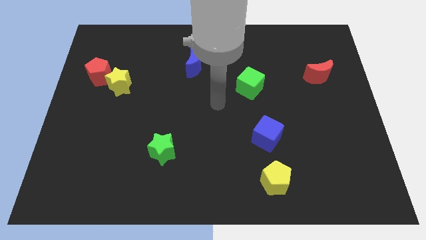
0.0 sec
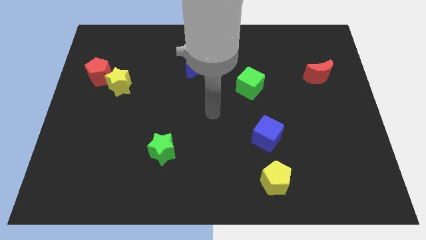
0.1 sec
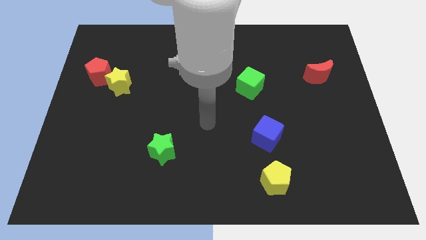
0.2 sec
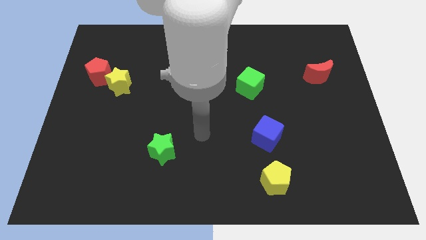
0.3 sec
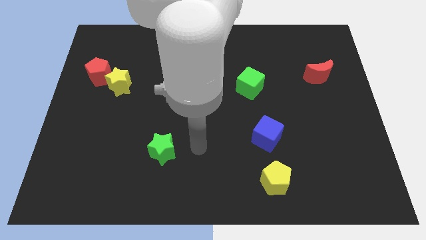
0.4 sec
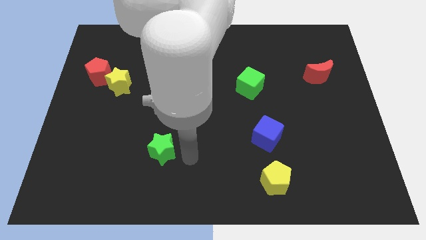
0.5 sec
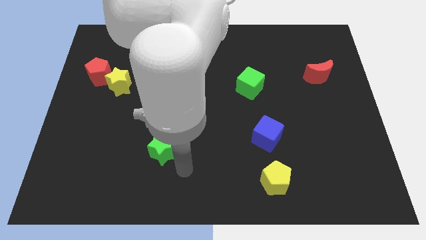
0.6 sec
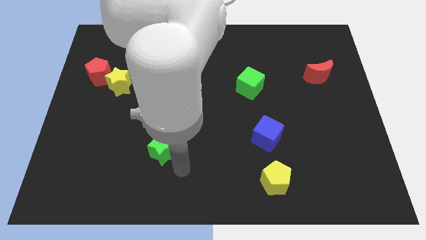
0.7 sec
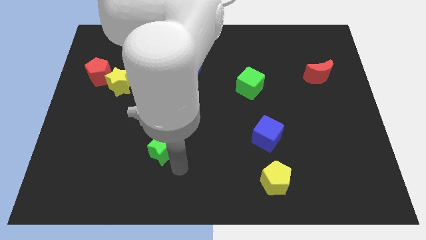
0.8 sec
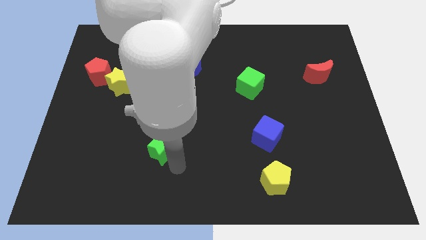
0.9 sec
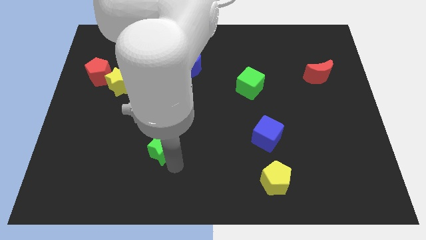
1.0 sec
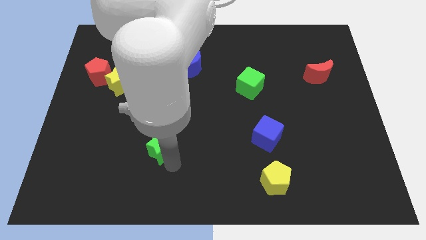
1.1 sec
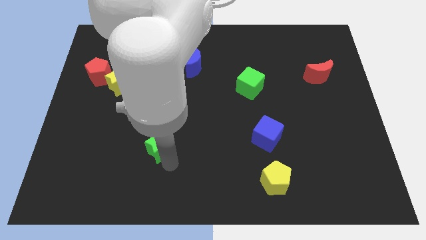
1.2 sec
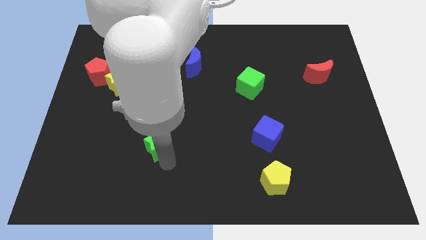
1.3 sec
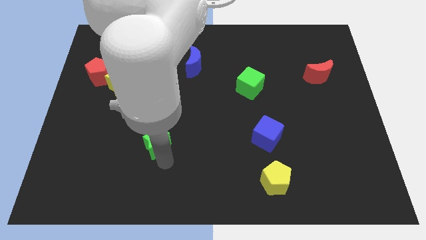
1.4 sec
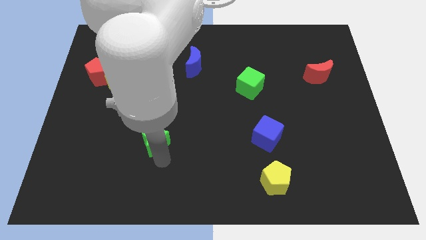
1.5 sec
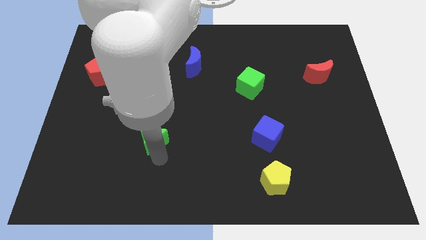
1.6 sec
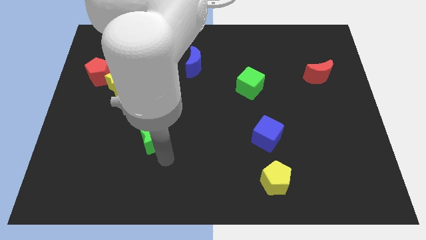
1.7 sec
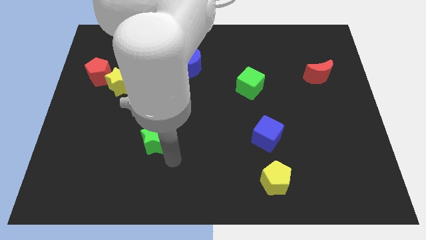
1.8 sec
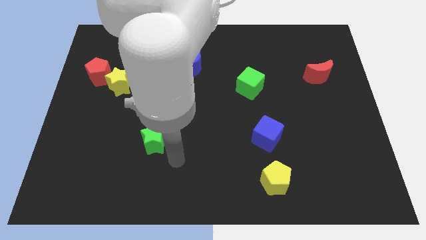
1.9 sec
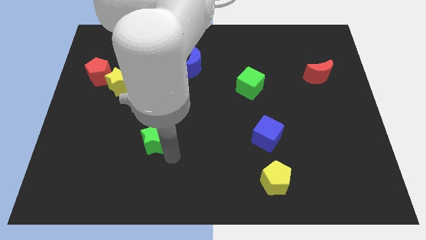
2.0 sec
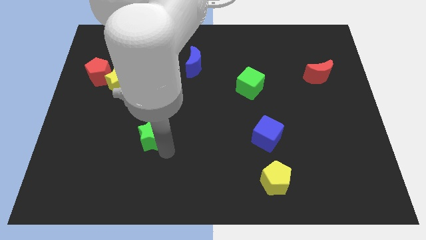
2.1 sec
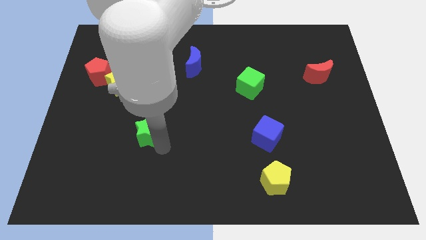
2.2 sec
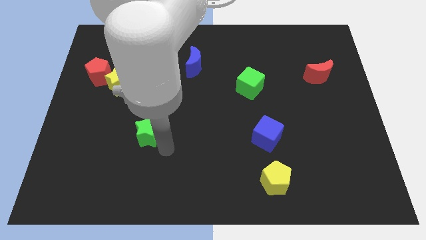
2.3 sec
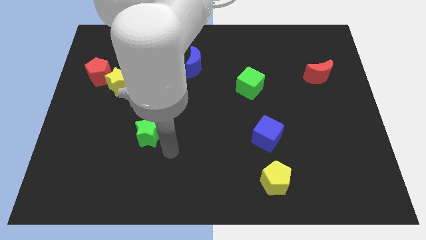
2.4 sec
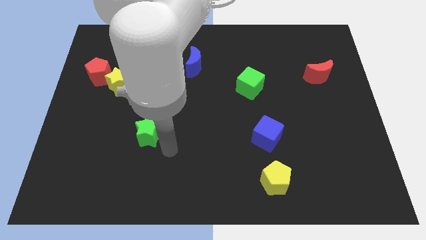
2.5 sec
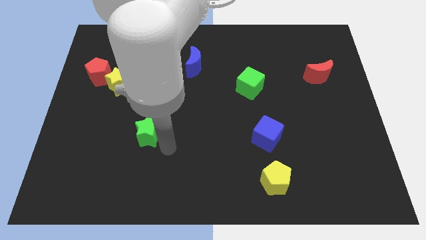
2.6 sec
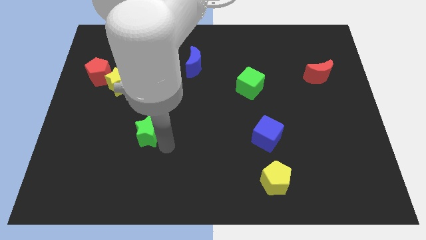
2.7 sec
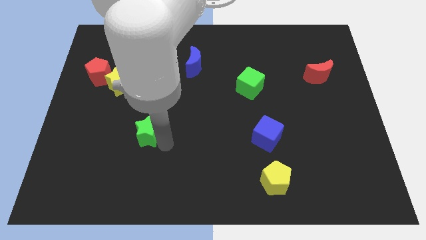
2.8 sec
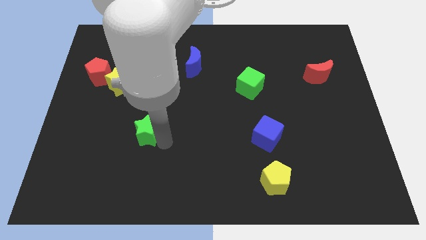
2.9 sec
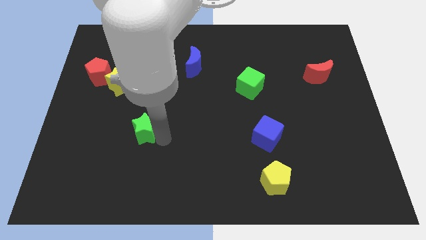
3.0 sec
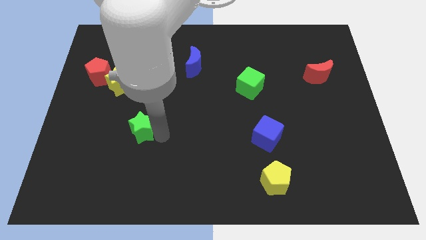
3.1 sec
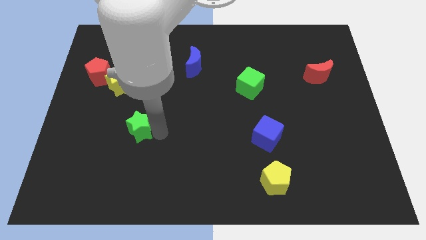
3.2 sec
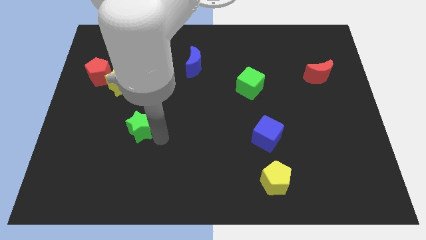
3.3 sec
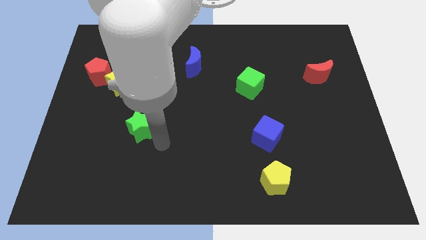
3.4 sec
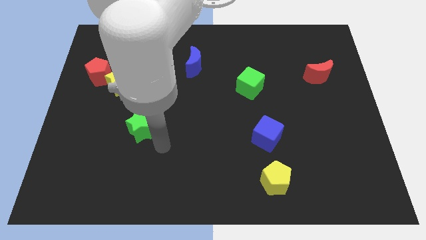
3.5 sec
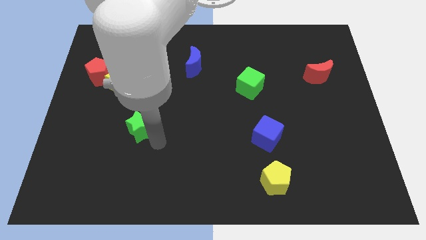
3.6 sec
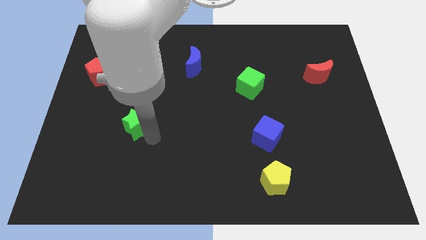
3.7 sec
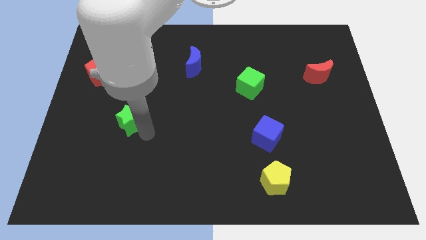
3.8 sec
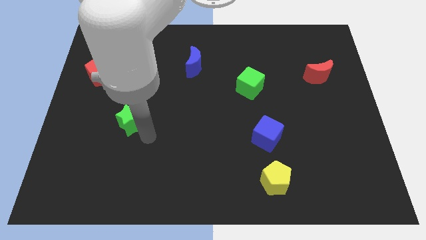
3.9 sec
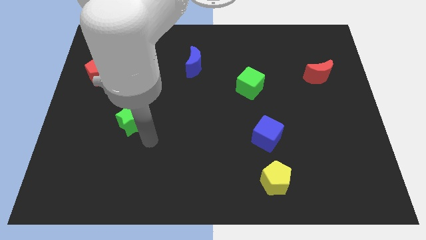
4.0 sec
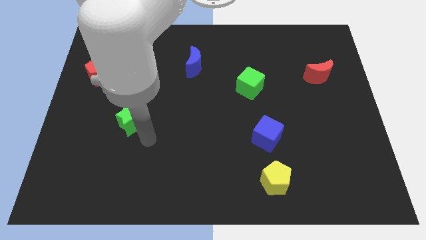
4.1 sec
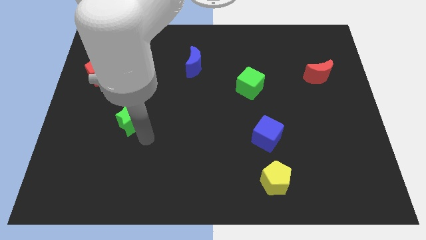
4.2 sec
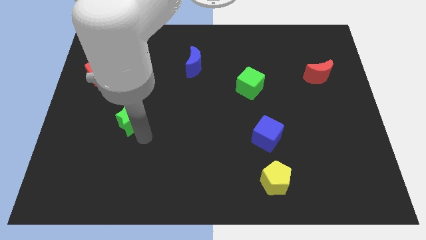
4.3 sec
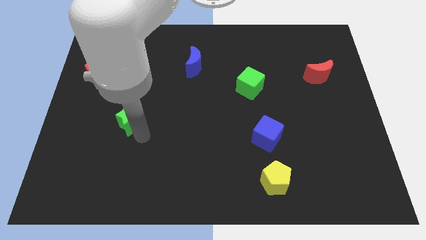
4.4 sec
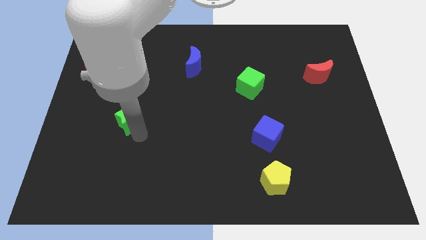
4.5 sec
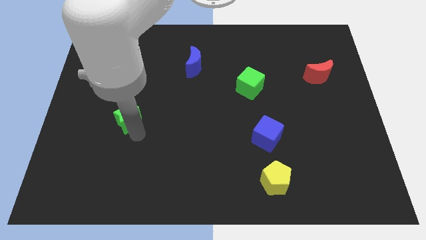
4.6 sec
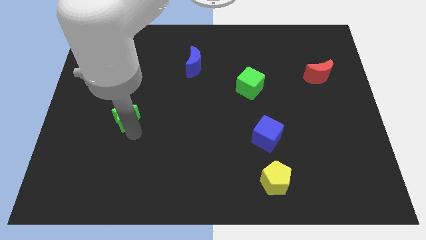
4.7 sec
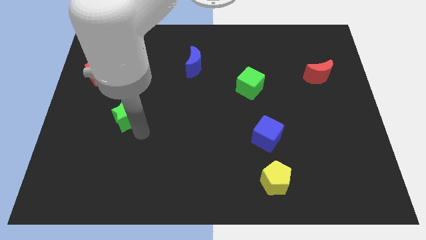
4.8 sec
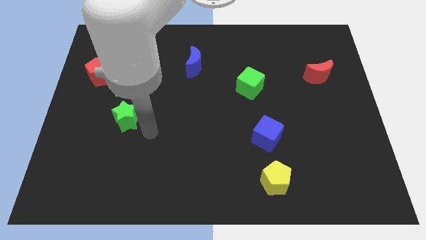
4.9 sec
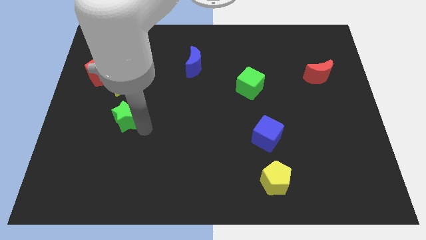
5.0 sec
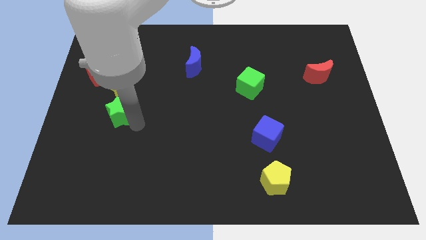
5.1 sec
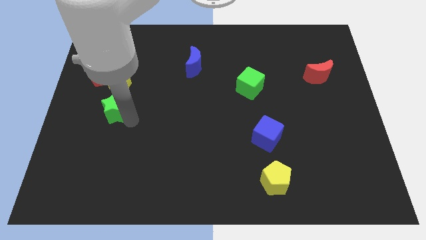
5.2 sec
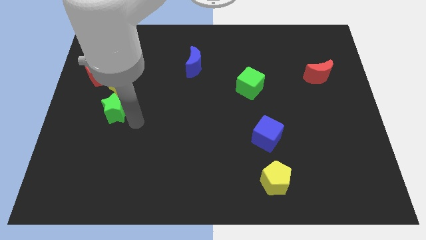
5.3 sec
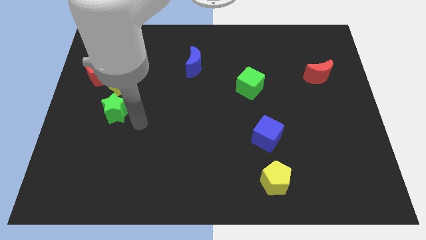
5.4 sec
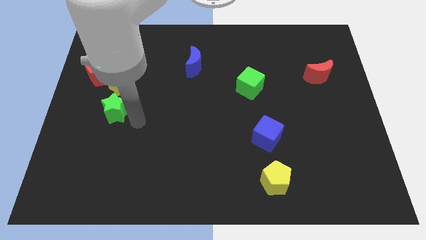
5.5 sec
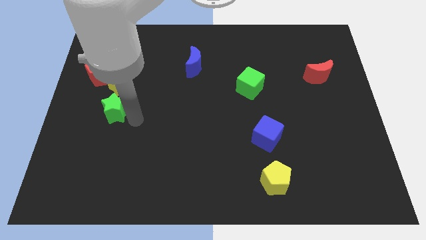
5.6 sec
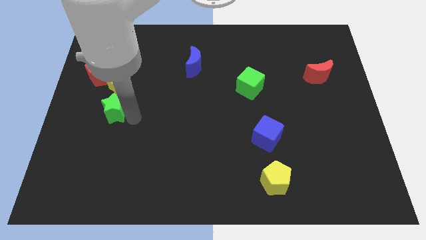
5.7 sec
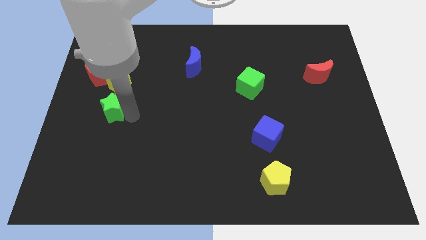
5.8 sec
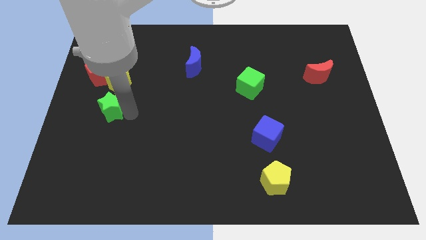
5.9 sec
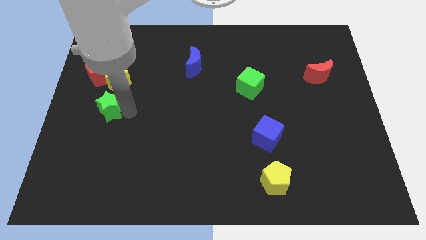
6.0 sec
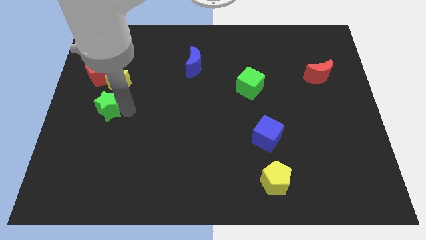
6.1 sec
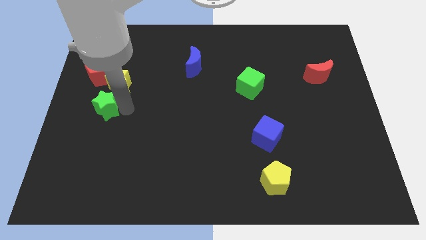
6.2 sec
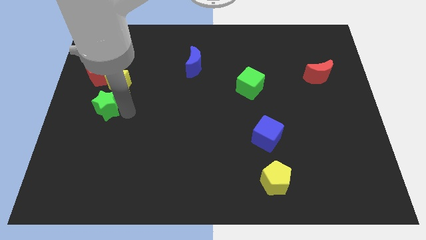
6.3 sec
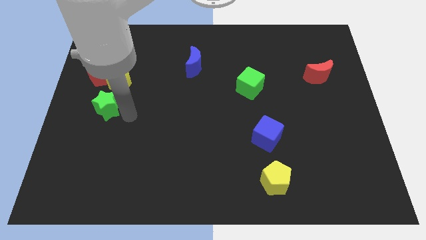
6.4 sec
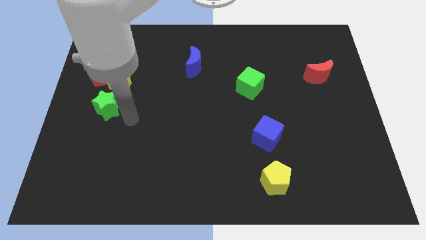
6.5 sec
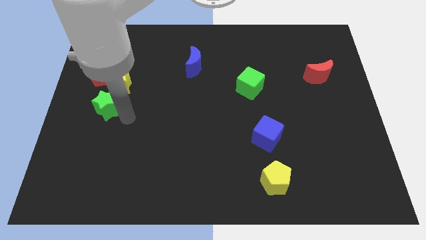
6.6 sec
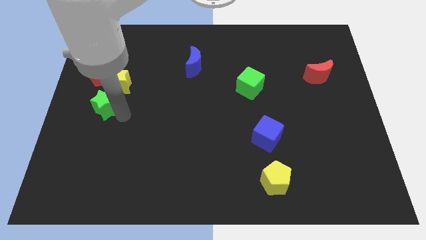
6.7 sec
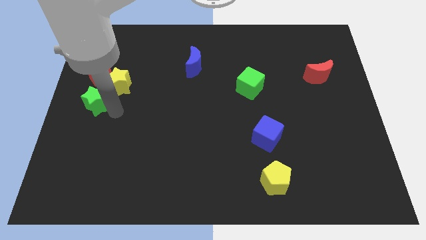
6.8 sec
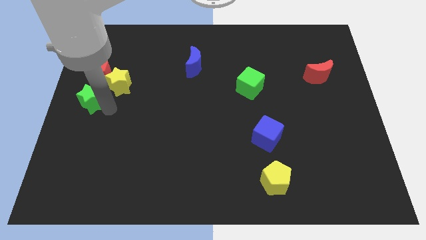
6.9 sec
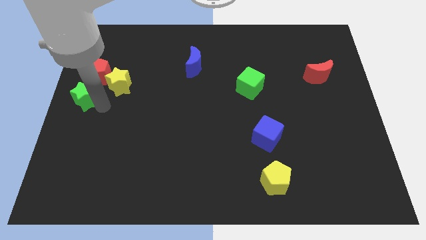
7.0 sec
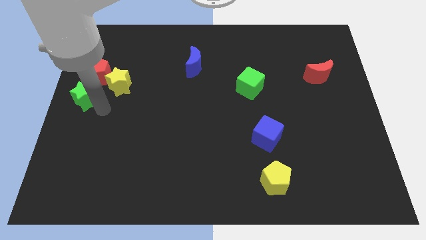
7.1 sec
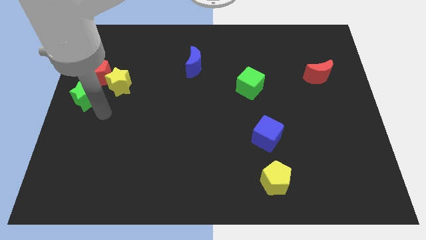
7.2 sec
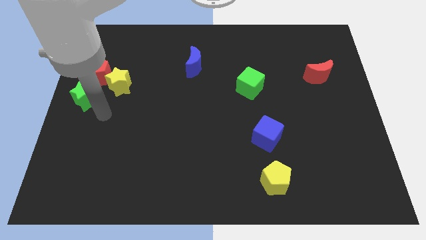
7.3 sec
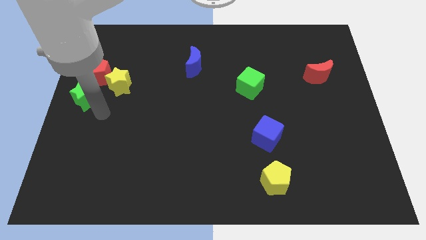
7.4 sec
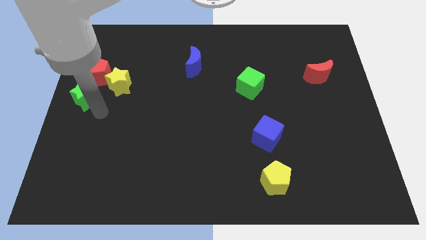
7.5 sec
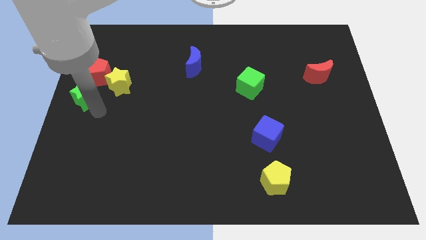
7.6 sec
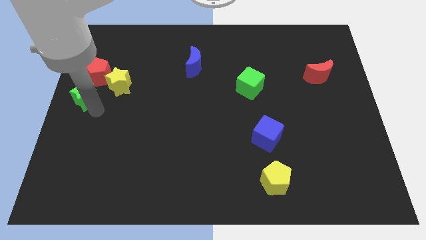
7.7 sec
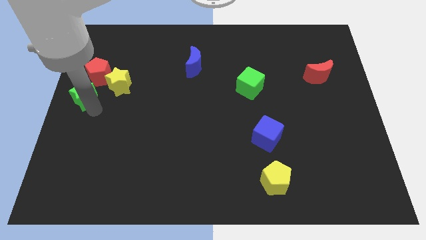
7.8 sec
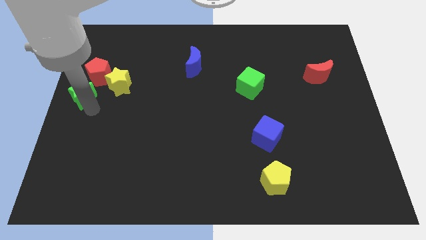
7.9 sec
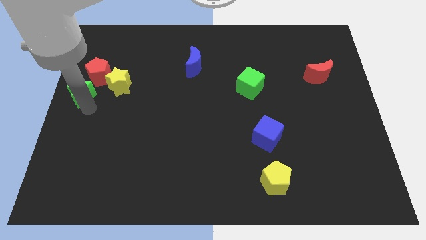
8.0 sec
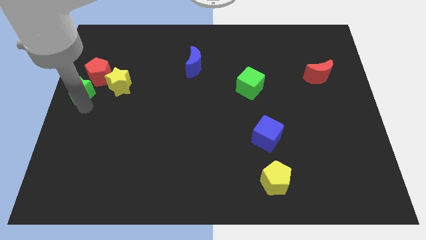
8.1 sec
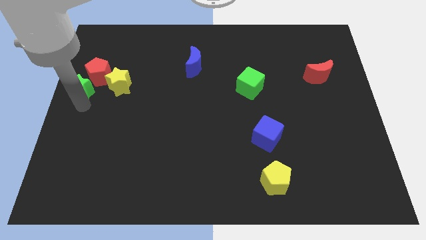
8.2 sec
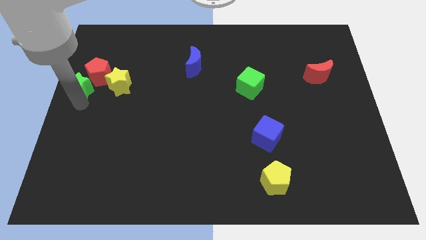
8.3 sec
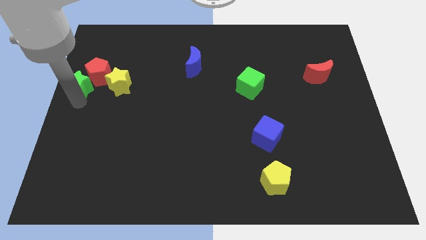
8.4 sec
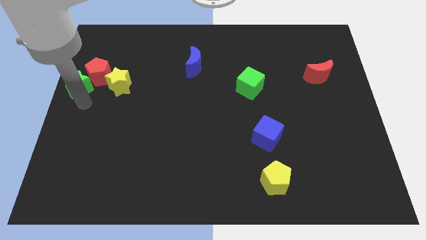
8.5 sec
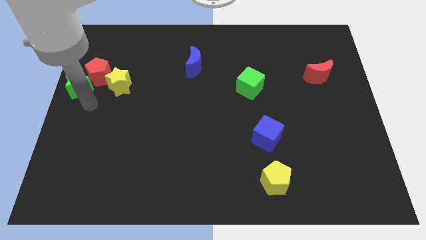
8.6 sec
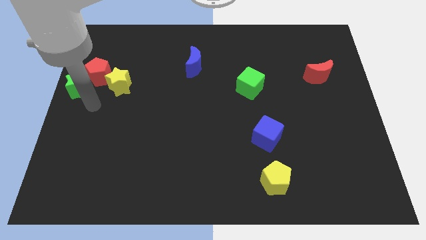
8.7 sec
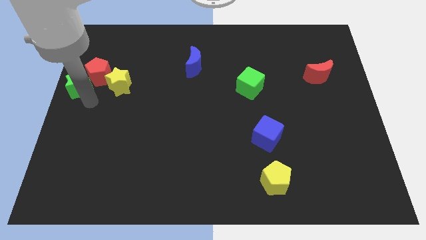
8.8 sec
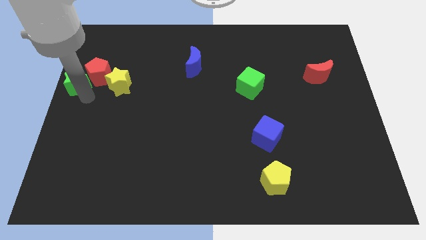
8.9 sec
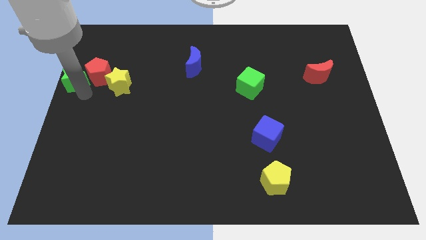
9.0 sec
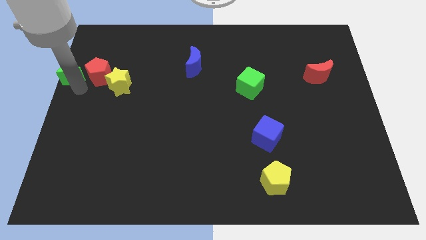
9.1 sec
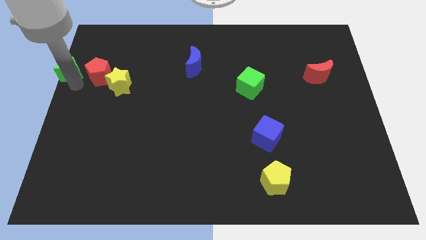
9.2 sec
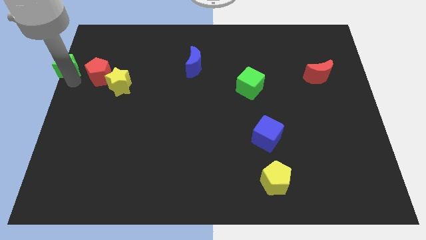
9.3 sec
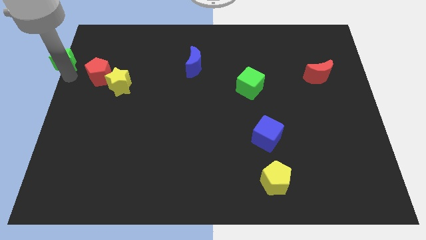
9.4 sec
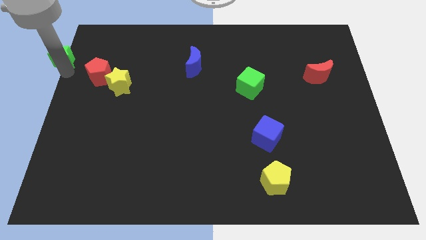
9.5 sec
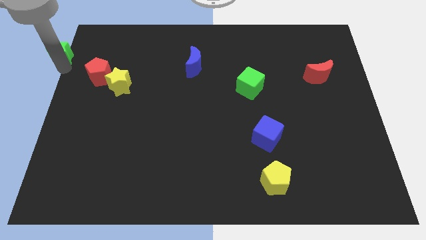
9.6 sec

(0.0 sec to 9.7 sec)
put the green star to the top left of the board
